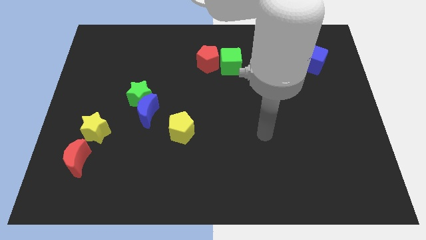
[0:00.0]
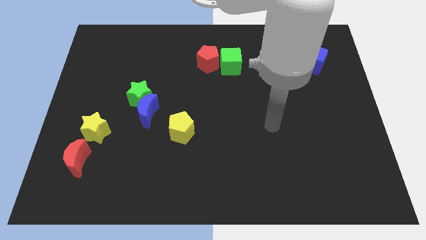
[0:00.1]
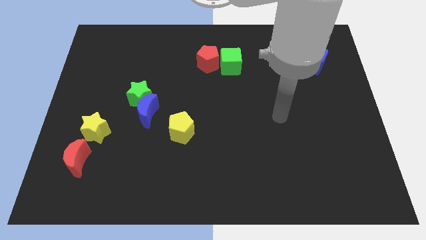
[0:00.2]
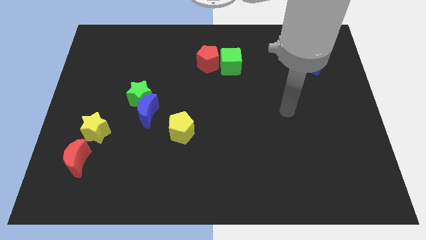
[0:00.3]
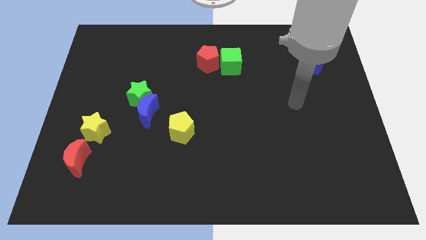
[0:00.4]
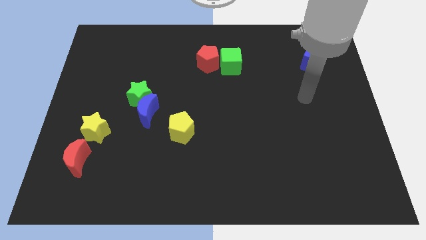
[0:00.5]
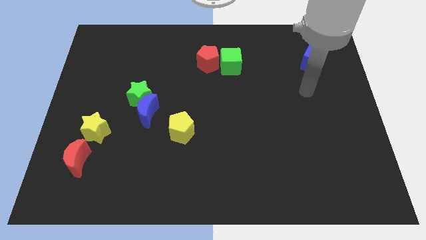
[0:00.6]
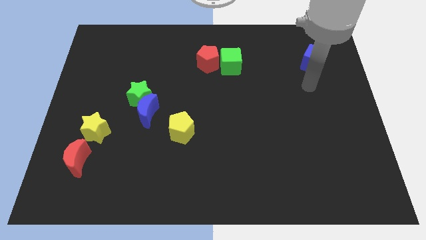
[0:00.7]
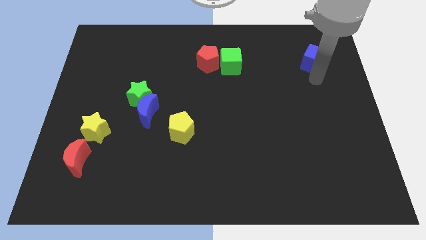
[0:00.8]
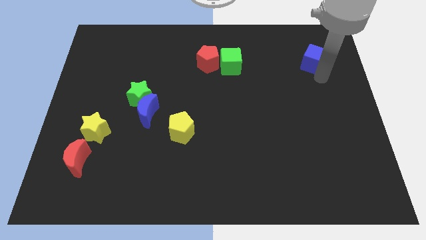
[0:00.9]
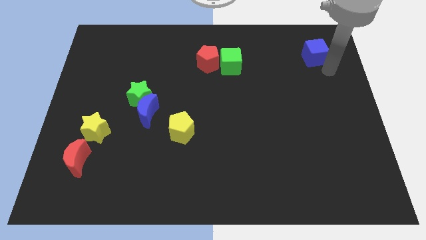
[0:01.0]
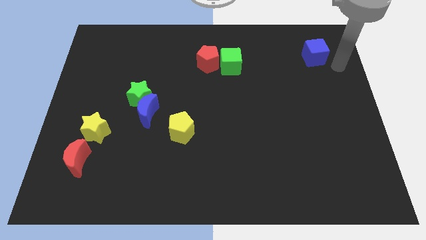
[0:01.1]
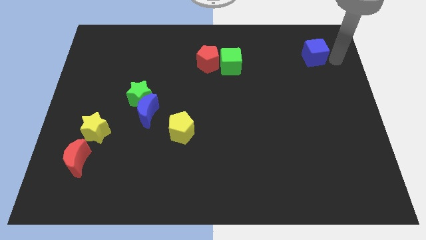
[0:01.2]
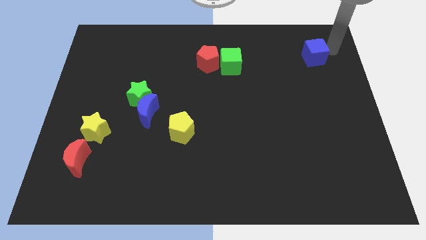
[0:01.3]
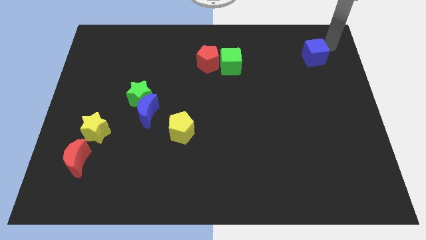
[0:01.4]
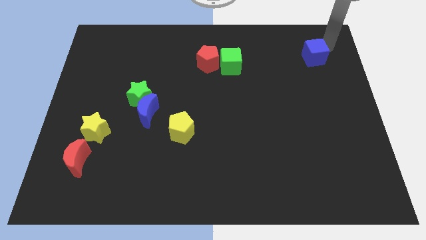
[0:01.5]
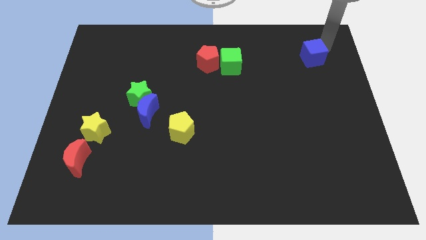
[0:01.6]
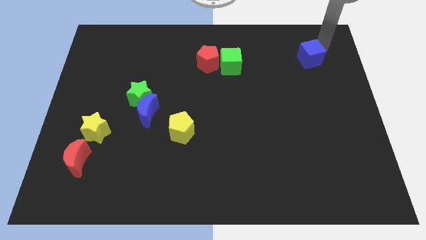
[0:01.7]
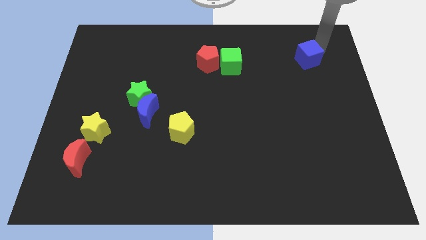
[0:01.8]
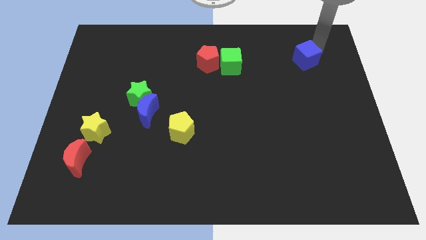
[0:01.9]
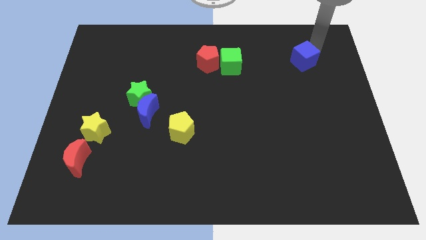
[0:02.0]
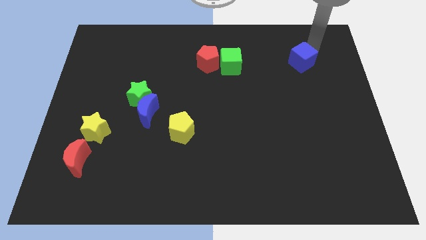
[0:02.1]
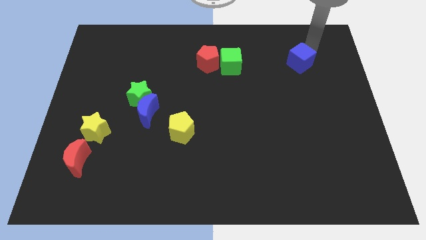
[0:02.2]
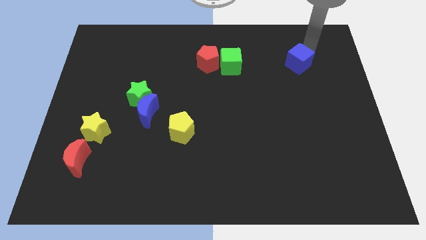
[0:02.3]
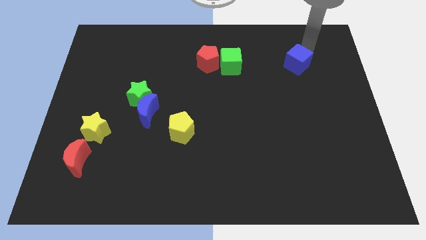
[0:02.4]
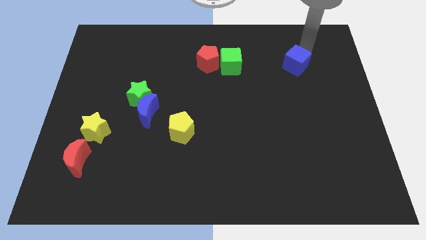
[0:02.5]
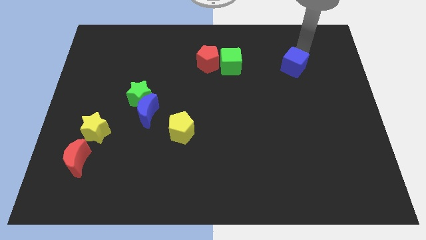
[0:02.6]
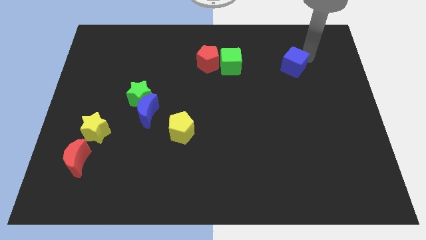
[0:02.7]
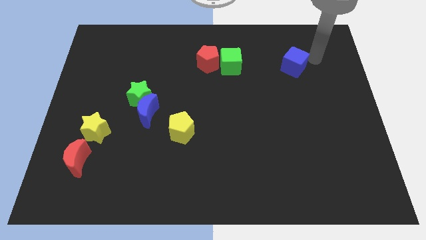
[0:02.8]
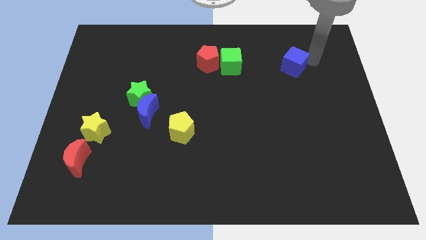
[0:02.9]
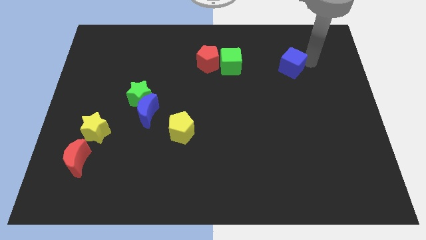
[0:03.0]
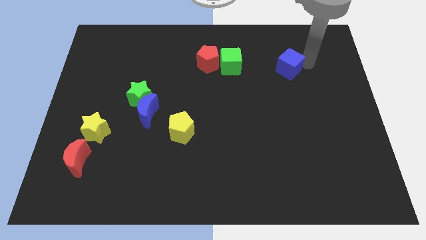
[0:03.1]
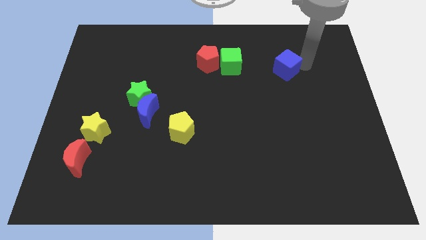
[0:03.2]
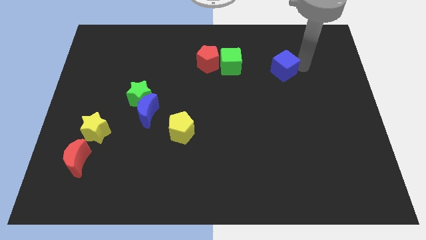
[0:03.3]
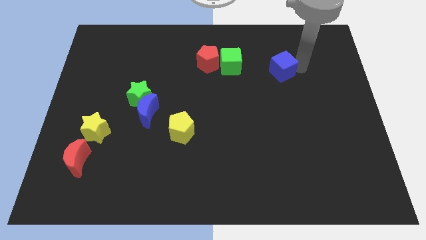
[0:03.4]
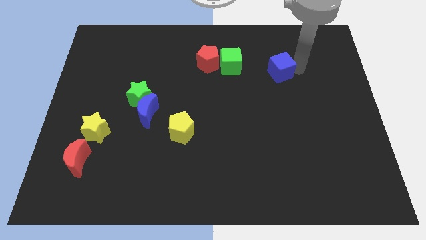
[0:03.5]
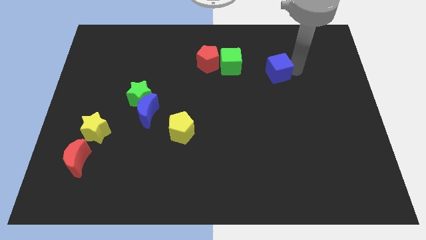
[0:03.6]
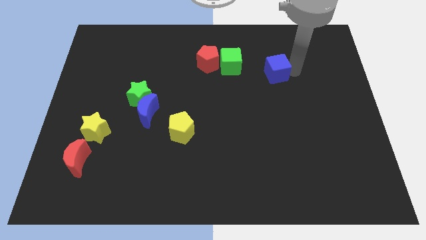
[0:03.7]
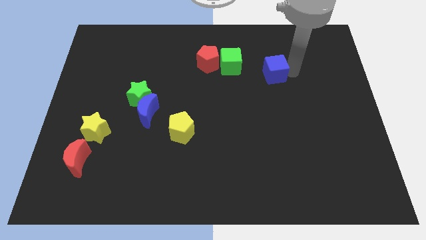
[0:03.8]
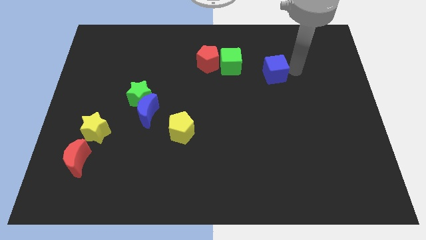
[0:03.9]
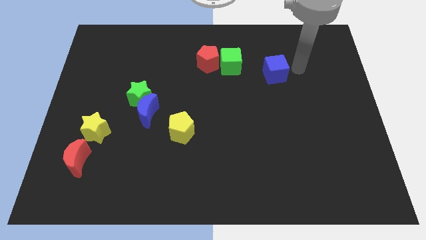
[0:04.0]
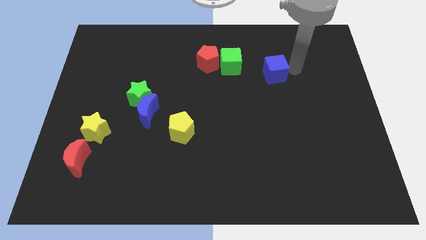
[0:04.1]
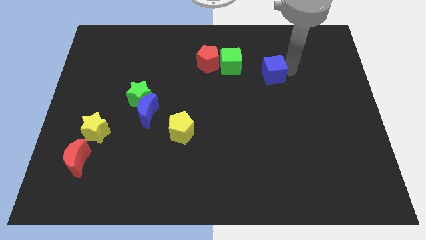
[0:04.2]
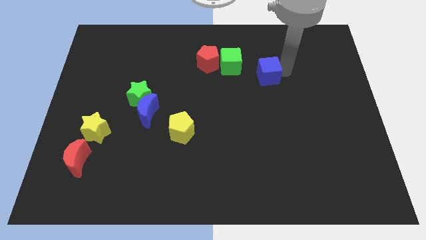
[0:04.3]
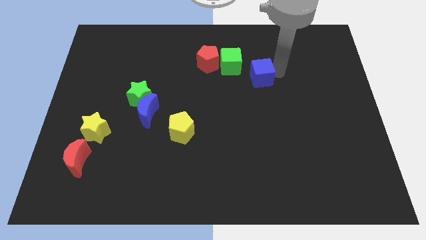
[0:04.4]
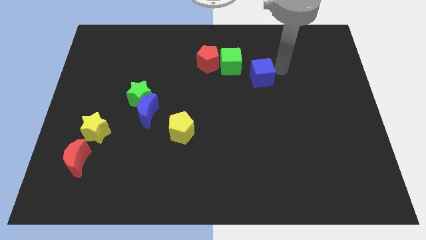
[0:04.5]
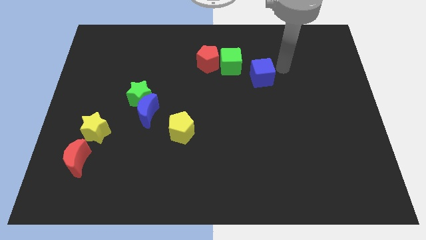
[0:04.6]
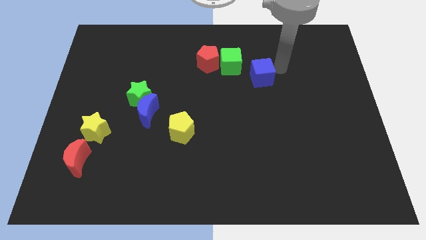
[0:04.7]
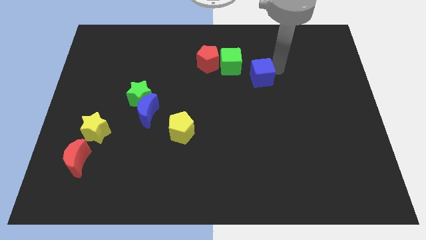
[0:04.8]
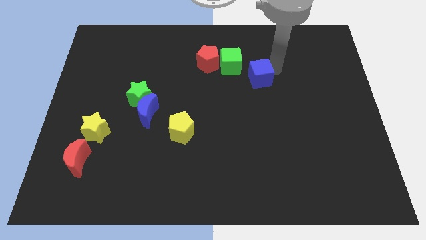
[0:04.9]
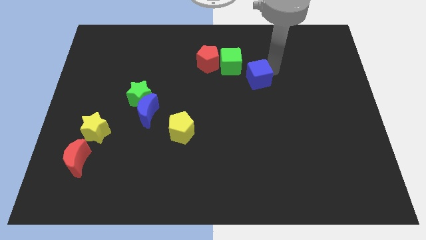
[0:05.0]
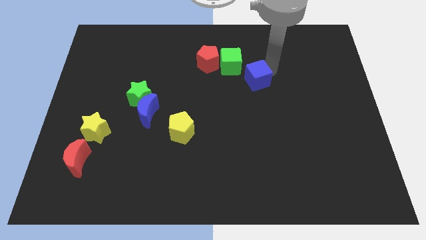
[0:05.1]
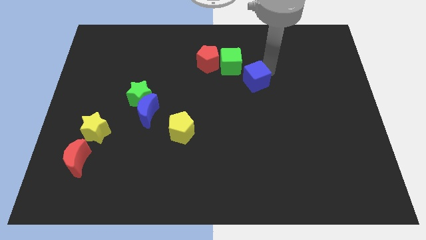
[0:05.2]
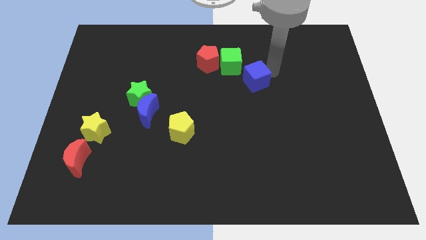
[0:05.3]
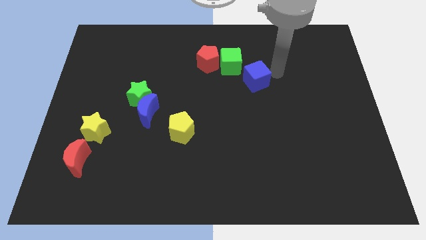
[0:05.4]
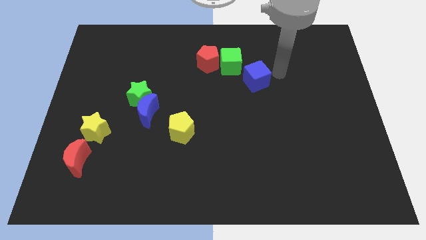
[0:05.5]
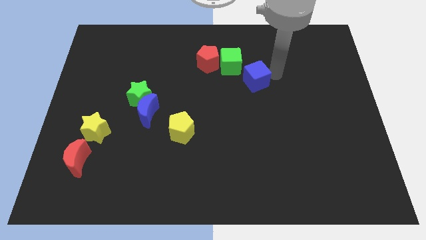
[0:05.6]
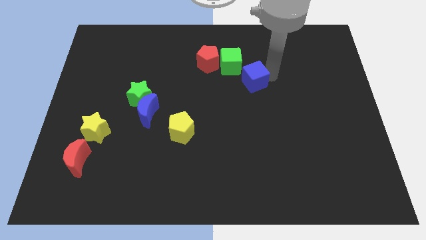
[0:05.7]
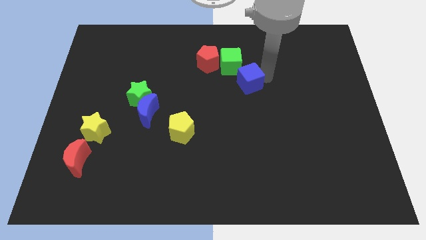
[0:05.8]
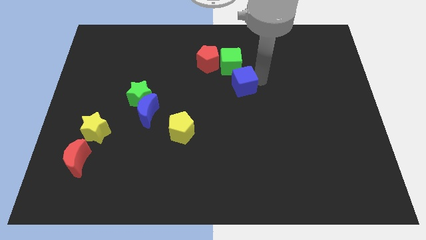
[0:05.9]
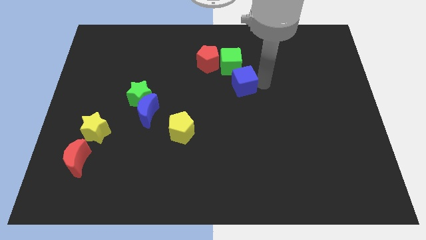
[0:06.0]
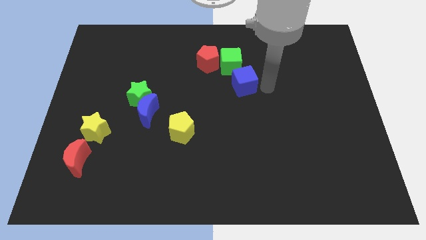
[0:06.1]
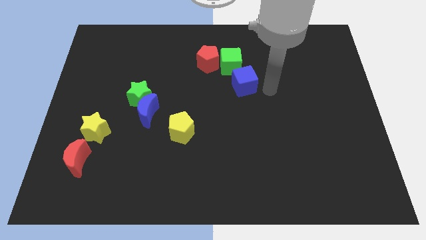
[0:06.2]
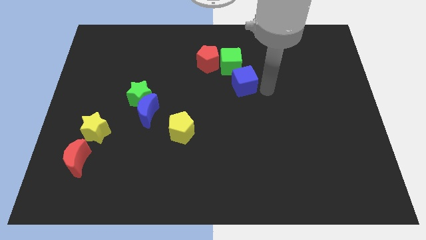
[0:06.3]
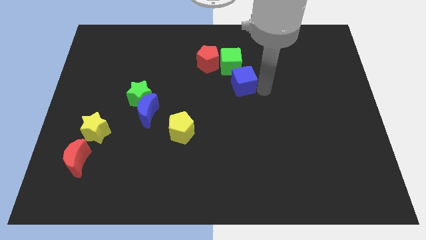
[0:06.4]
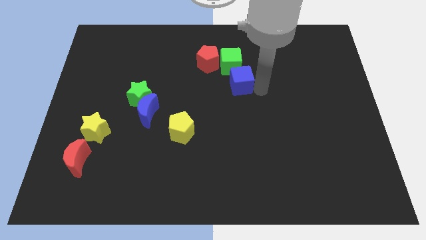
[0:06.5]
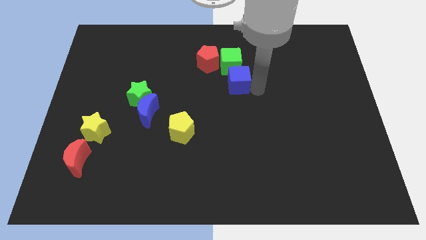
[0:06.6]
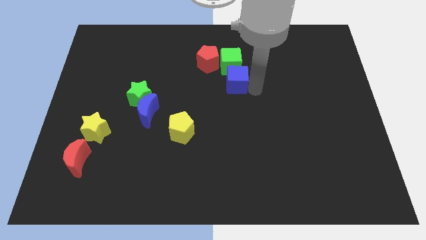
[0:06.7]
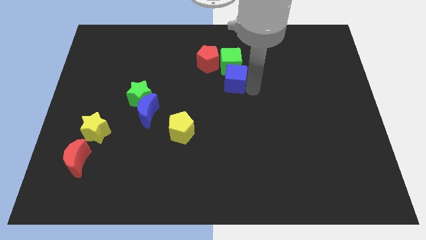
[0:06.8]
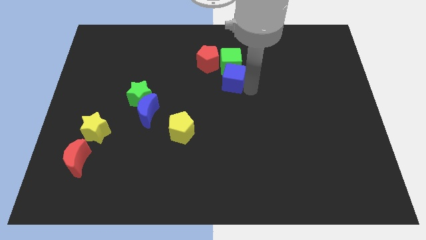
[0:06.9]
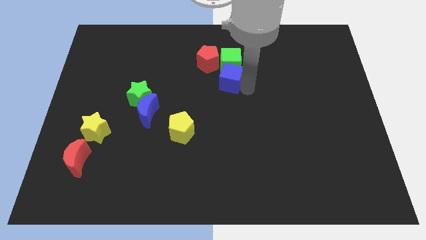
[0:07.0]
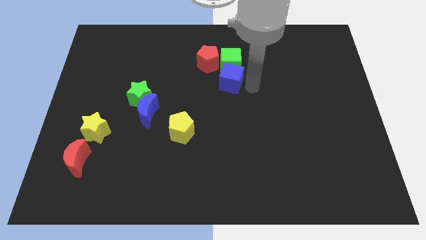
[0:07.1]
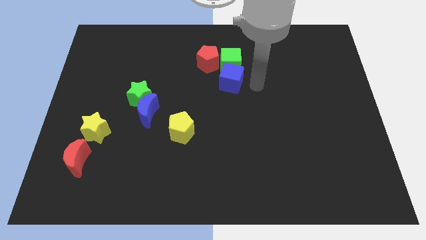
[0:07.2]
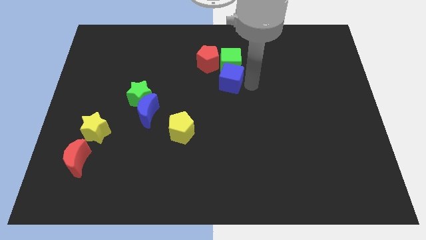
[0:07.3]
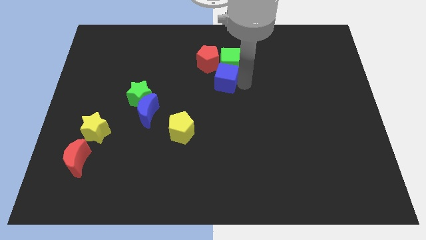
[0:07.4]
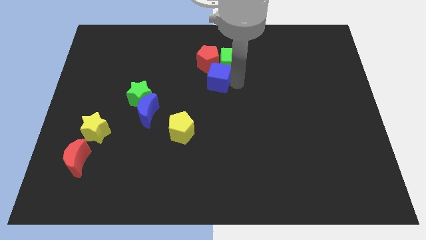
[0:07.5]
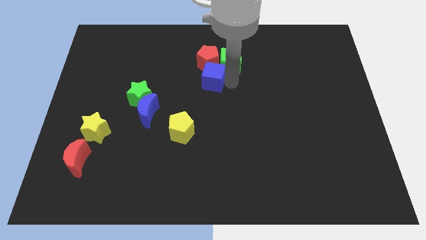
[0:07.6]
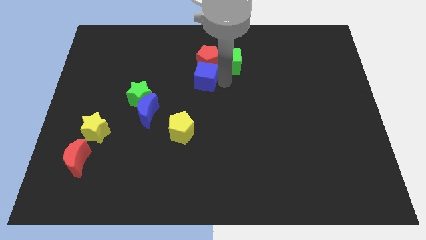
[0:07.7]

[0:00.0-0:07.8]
push the blue cube to the bottom left side of the red pentagon
